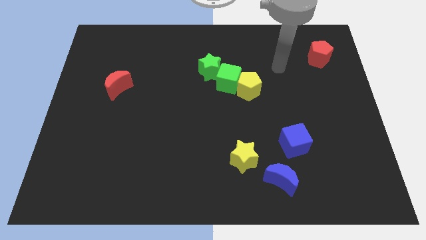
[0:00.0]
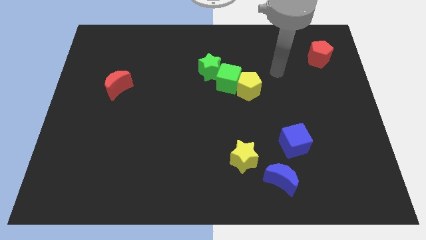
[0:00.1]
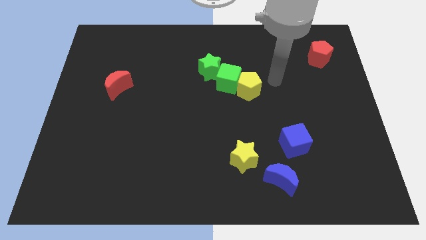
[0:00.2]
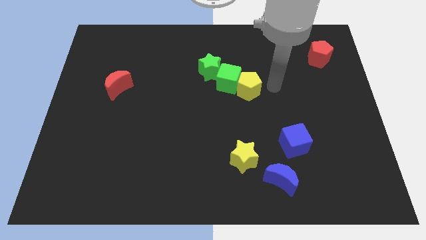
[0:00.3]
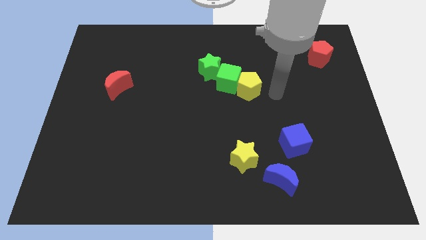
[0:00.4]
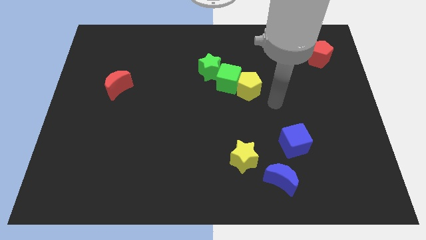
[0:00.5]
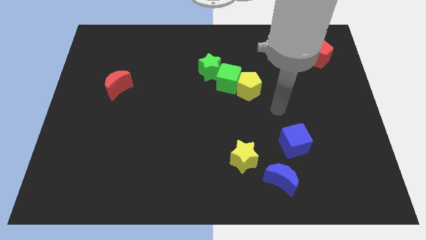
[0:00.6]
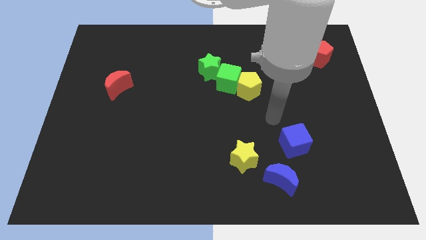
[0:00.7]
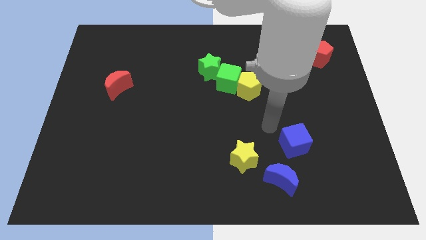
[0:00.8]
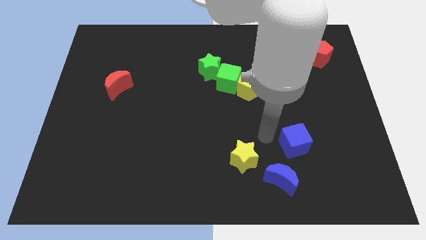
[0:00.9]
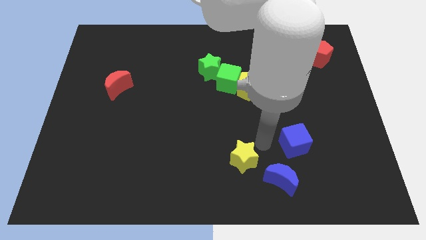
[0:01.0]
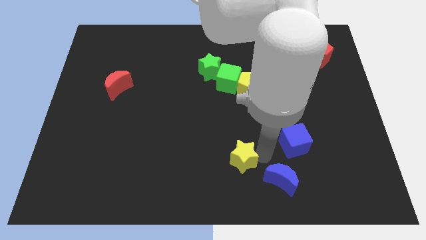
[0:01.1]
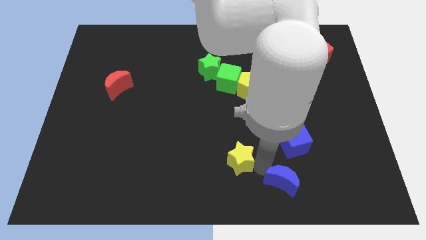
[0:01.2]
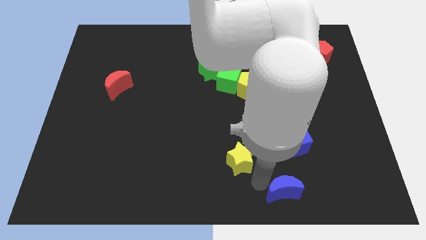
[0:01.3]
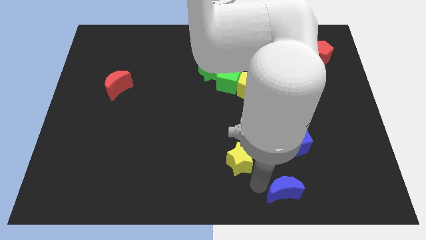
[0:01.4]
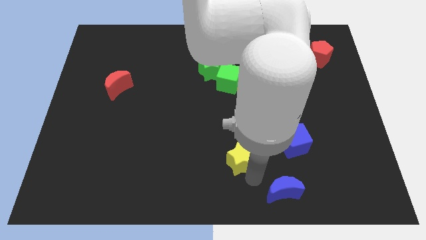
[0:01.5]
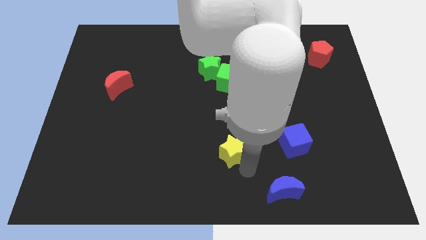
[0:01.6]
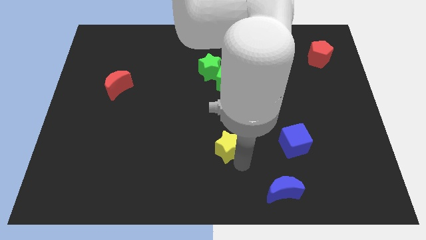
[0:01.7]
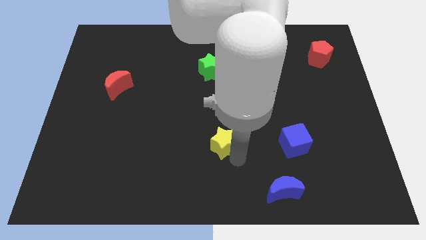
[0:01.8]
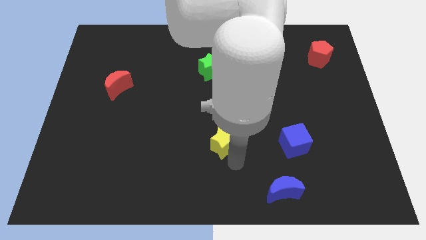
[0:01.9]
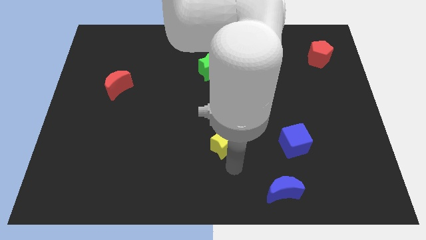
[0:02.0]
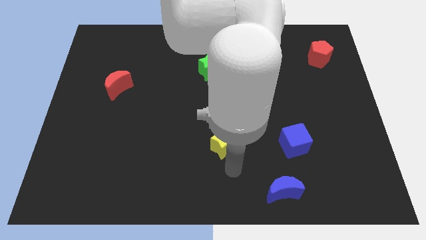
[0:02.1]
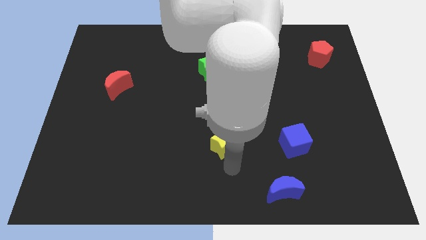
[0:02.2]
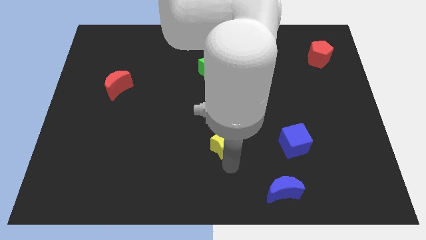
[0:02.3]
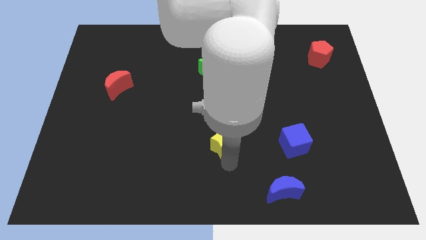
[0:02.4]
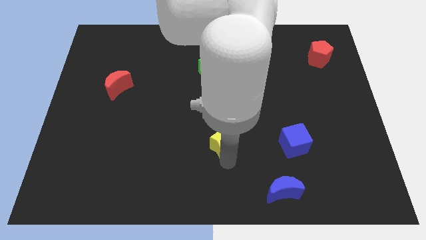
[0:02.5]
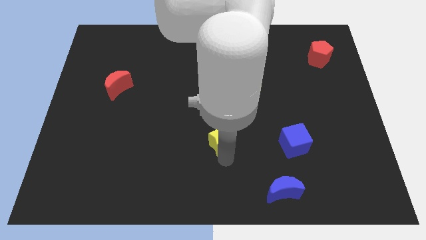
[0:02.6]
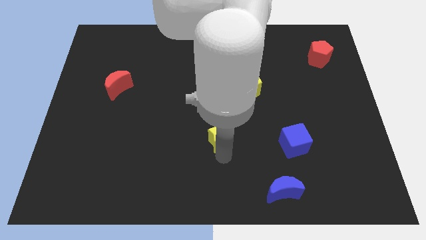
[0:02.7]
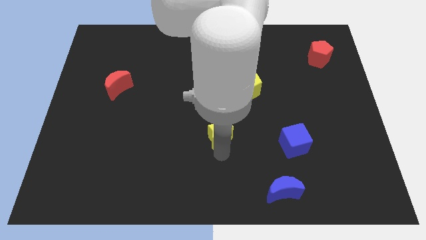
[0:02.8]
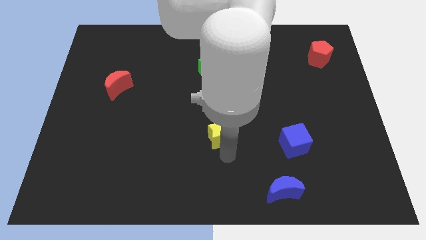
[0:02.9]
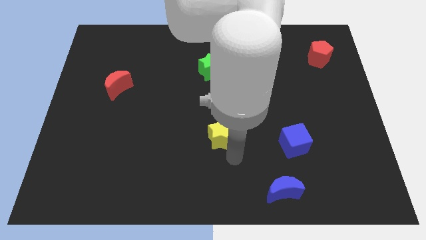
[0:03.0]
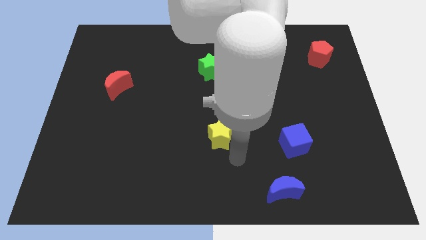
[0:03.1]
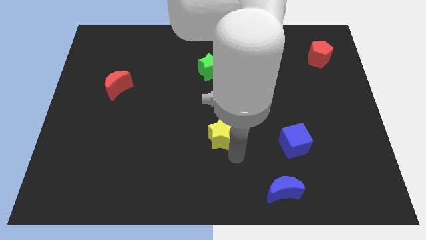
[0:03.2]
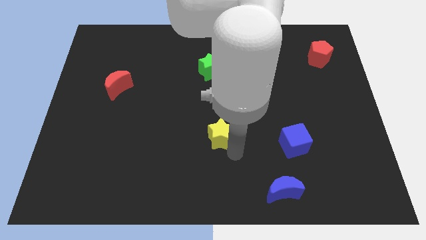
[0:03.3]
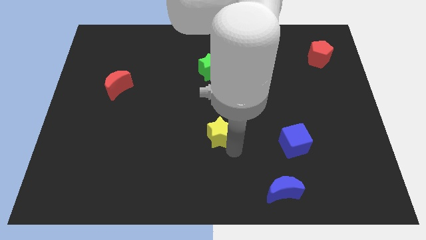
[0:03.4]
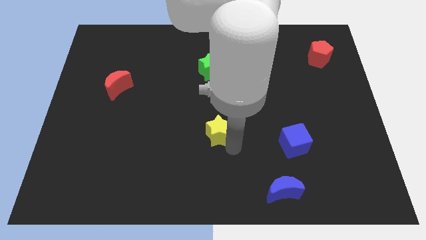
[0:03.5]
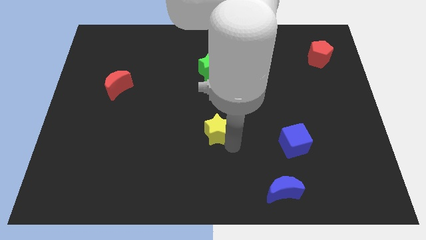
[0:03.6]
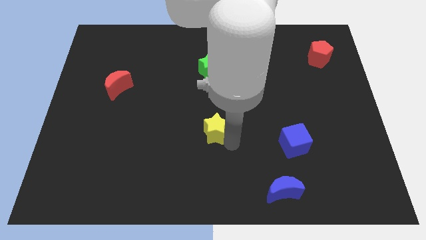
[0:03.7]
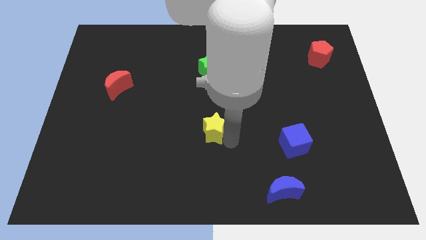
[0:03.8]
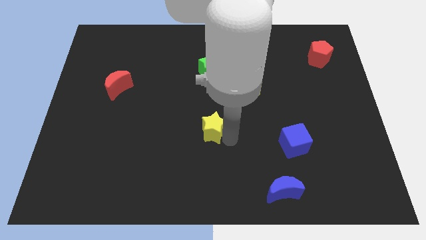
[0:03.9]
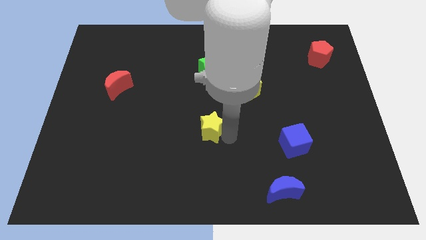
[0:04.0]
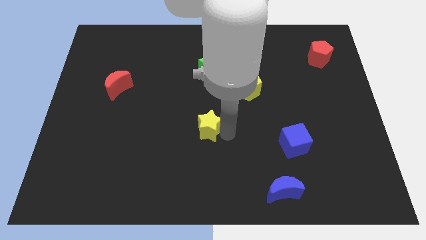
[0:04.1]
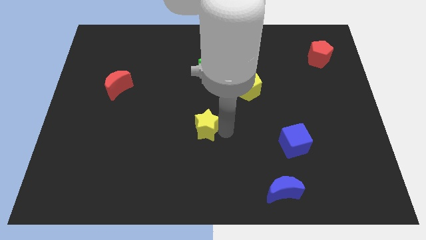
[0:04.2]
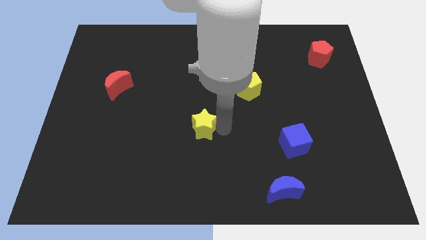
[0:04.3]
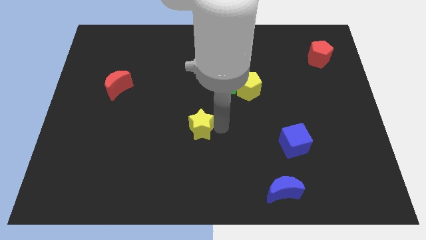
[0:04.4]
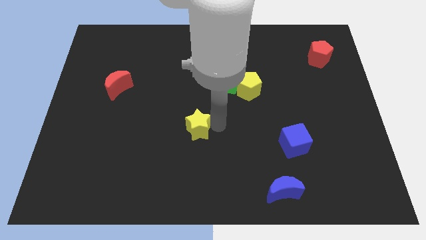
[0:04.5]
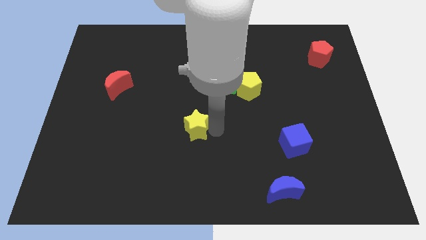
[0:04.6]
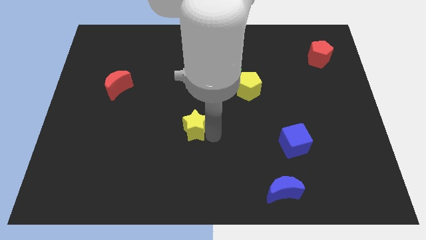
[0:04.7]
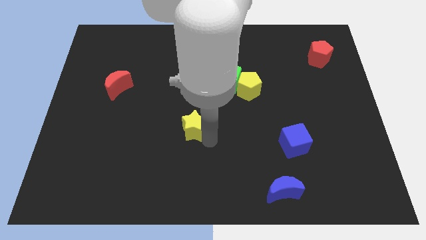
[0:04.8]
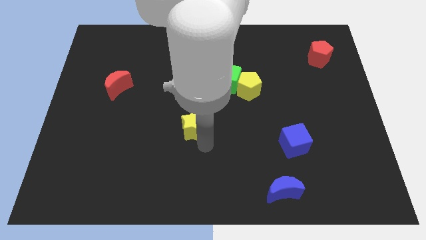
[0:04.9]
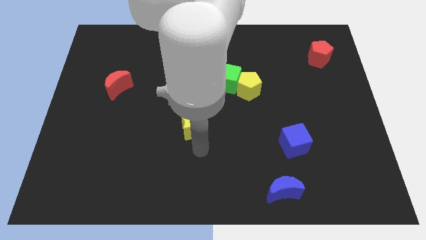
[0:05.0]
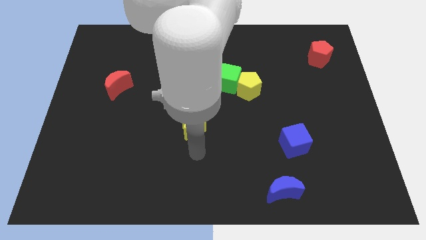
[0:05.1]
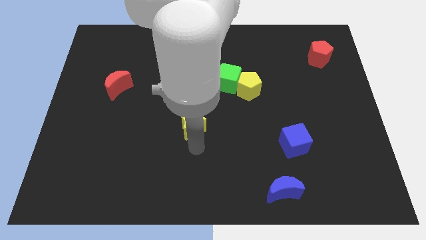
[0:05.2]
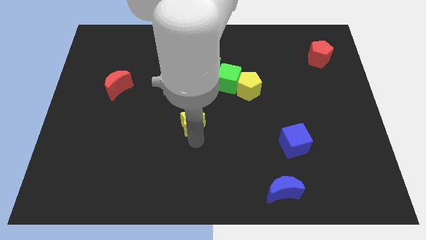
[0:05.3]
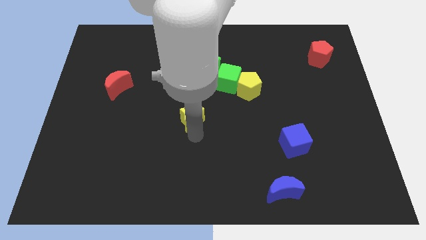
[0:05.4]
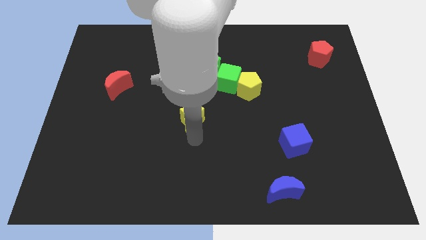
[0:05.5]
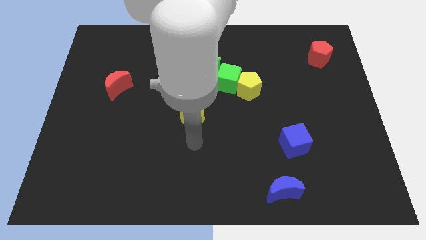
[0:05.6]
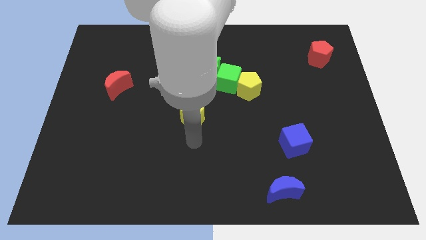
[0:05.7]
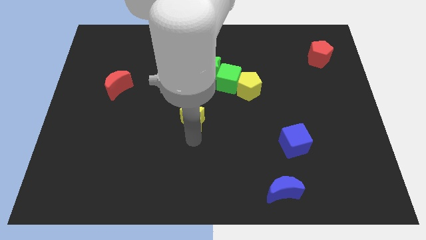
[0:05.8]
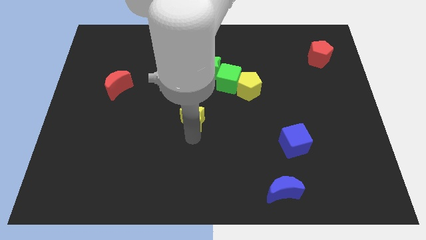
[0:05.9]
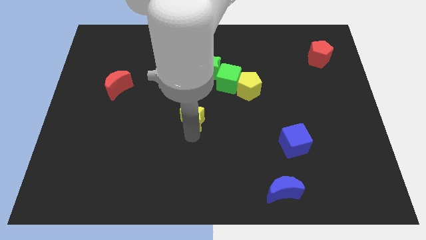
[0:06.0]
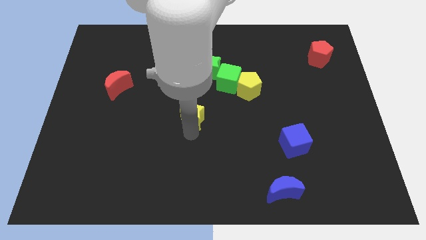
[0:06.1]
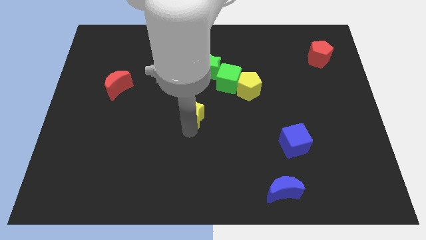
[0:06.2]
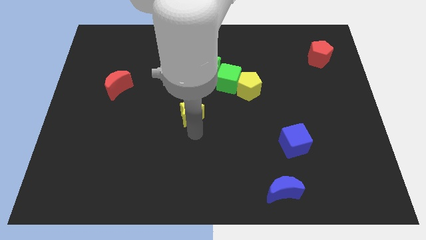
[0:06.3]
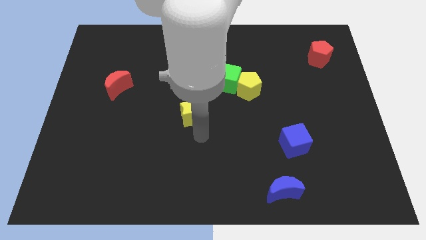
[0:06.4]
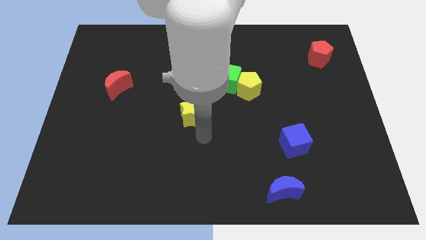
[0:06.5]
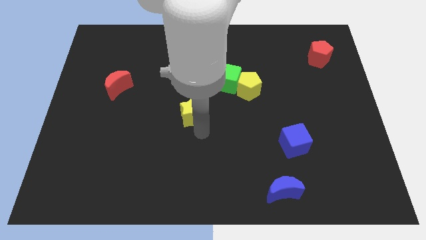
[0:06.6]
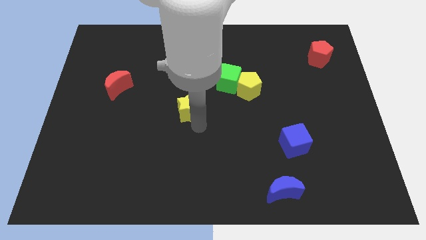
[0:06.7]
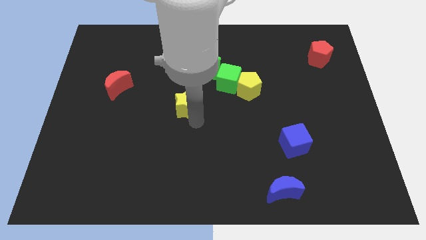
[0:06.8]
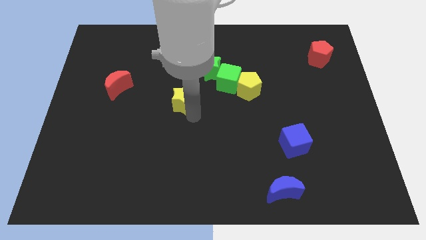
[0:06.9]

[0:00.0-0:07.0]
push the yellow star upwards and to the left

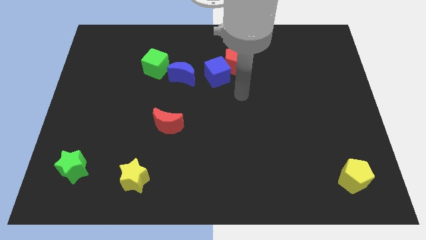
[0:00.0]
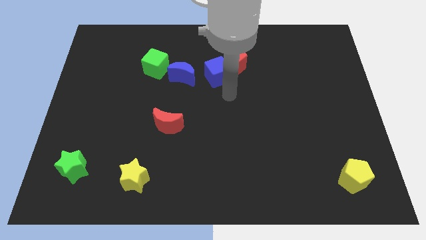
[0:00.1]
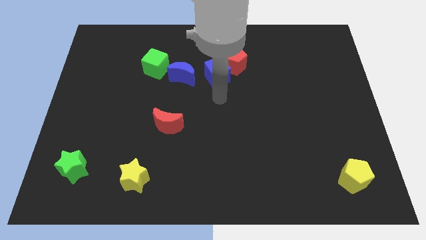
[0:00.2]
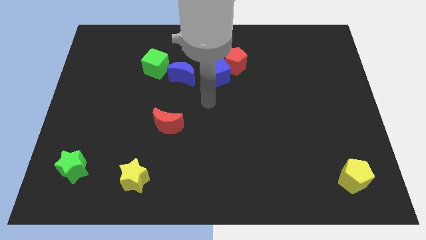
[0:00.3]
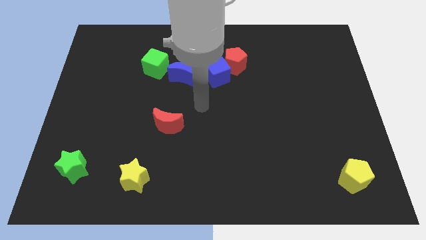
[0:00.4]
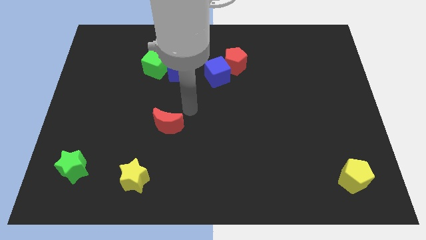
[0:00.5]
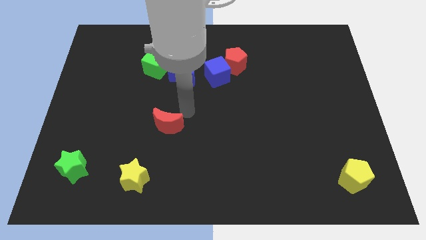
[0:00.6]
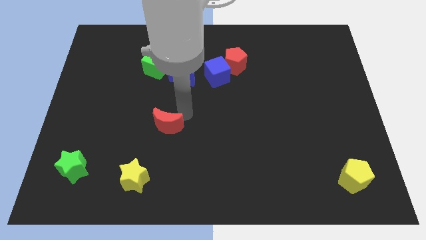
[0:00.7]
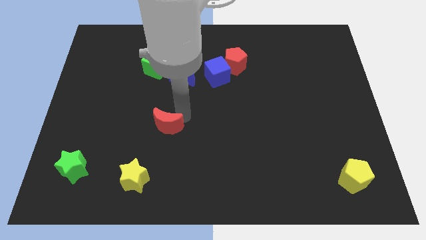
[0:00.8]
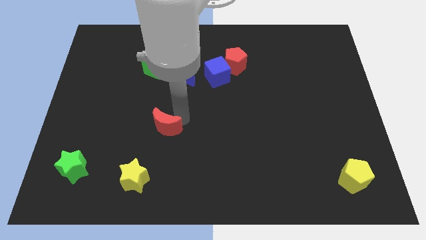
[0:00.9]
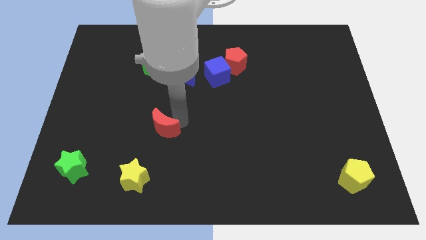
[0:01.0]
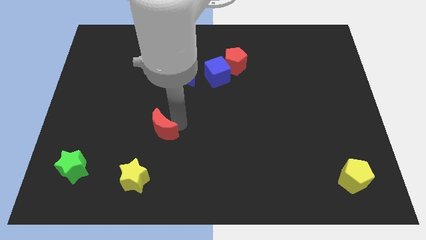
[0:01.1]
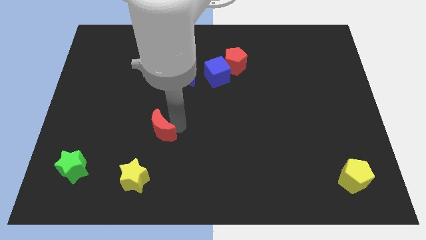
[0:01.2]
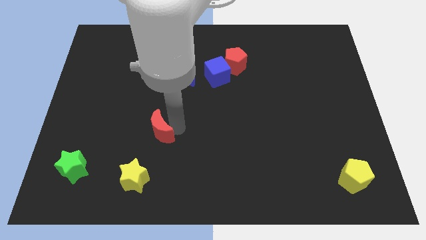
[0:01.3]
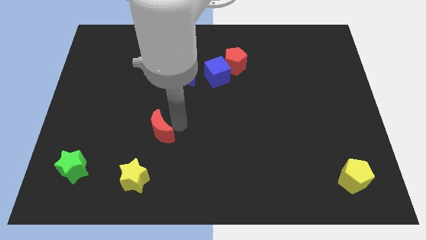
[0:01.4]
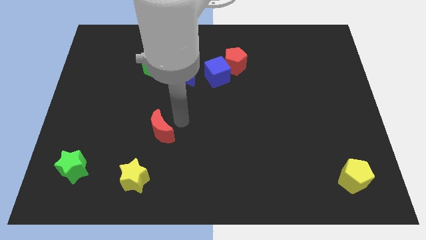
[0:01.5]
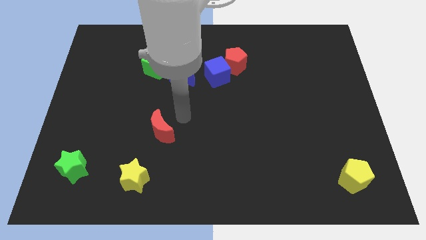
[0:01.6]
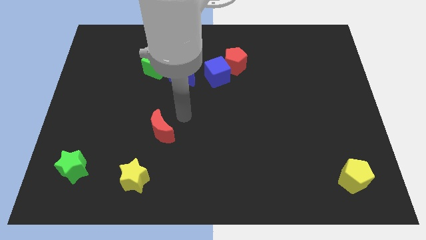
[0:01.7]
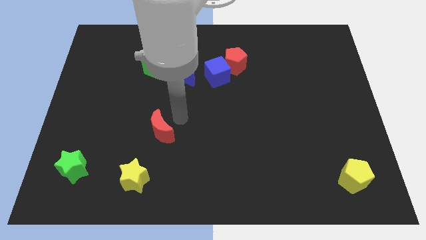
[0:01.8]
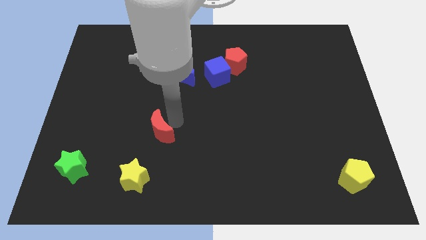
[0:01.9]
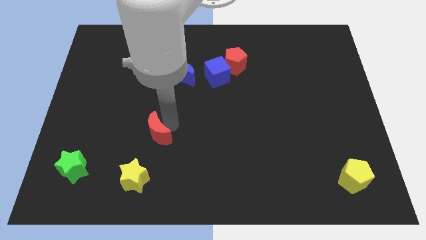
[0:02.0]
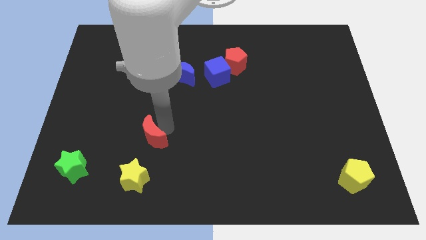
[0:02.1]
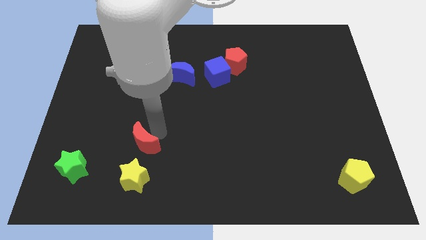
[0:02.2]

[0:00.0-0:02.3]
slide the red moon slightly downwards and to the left
